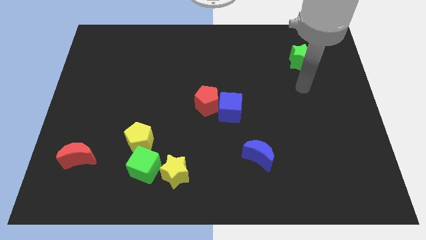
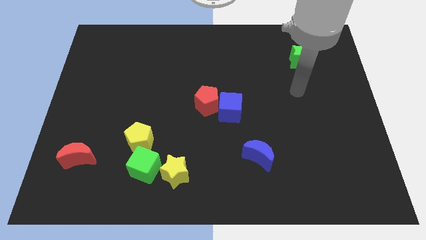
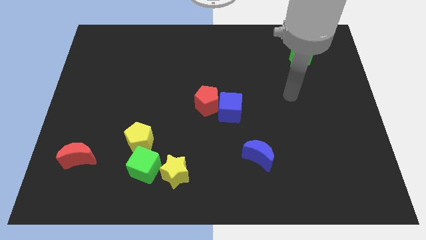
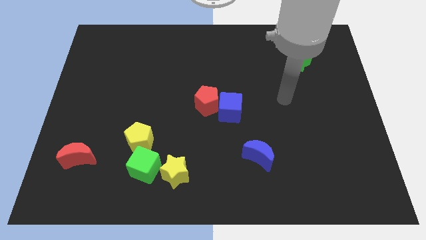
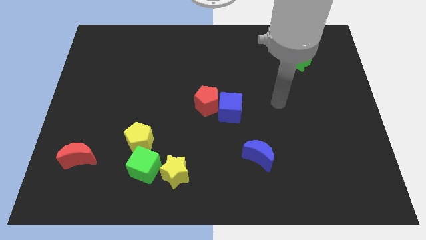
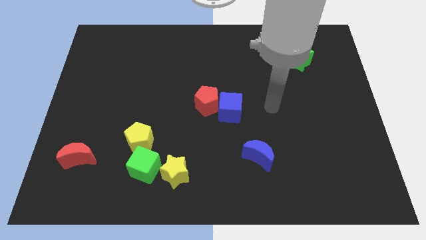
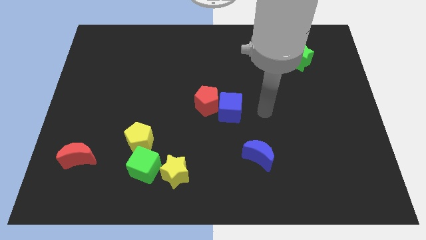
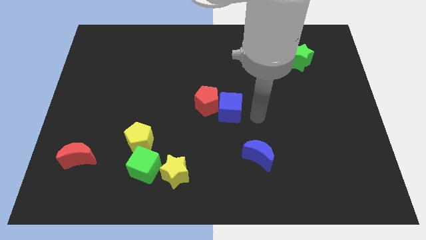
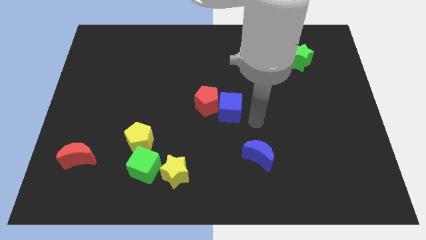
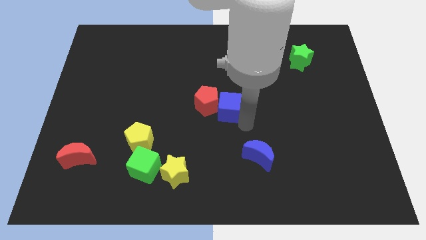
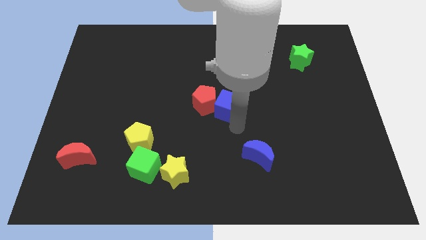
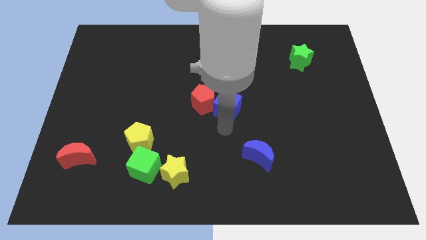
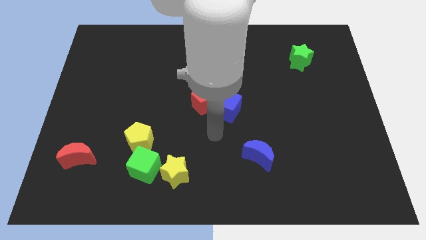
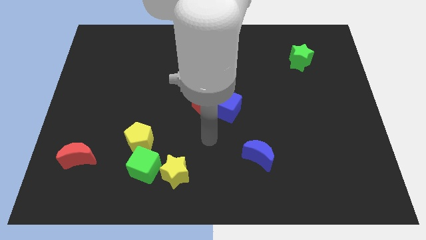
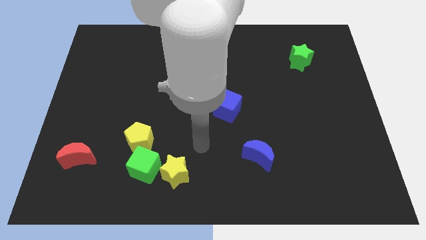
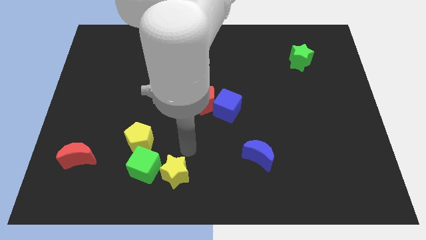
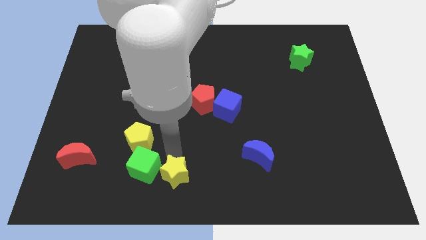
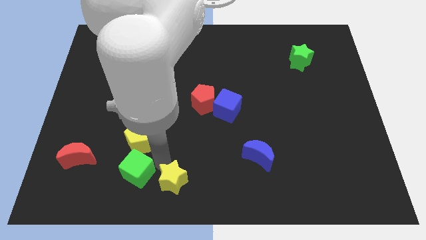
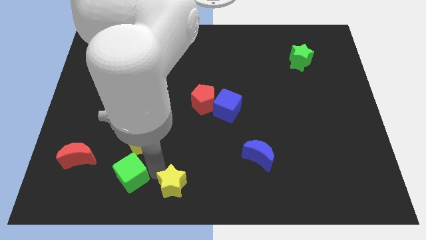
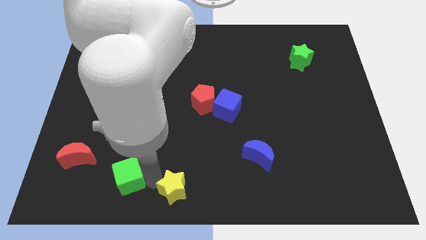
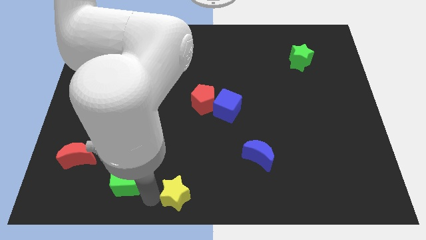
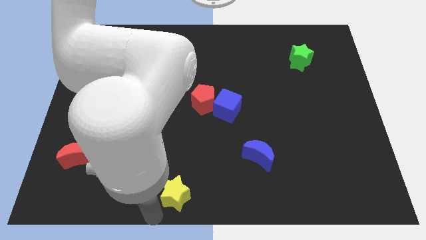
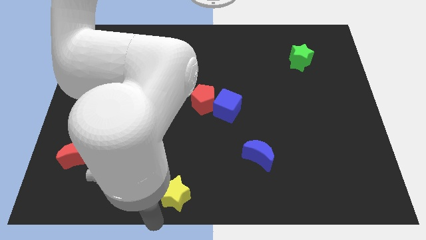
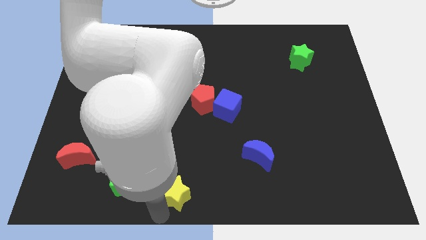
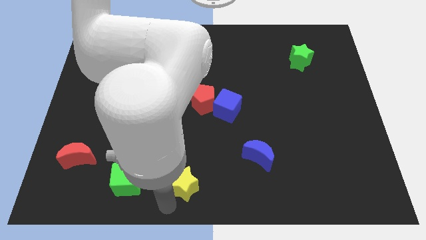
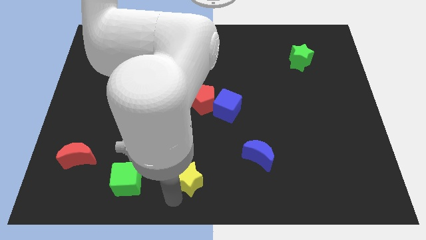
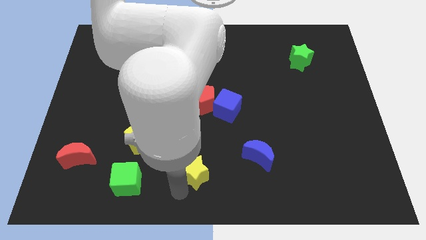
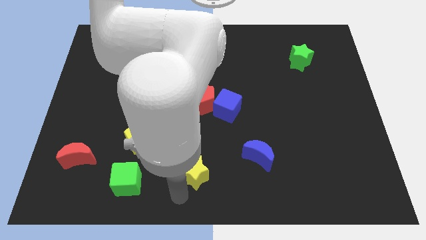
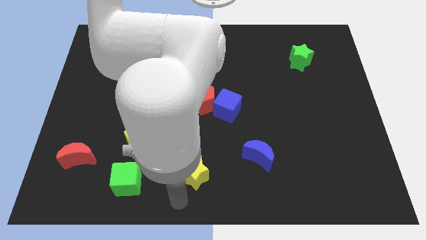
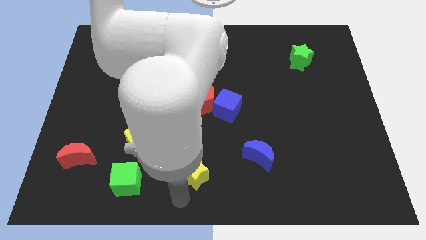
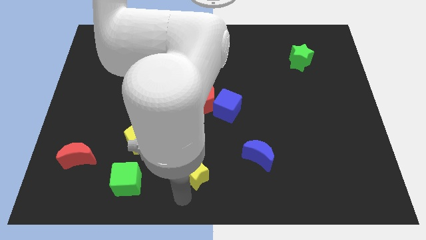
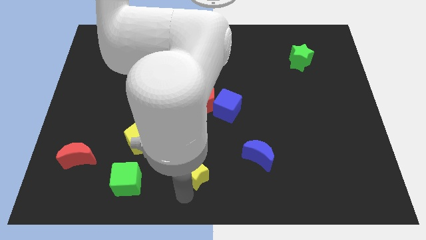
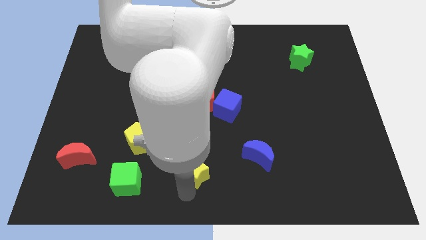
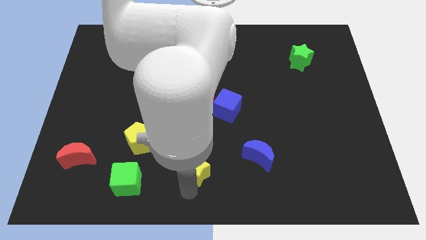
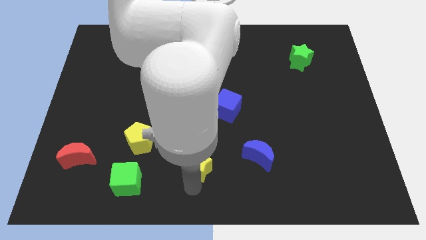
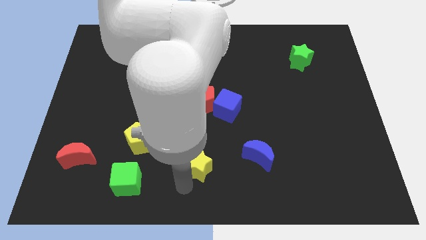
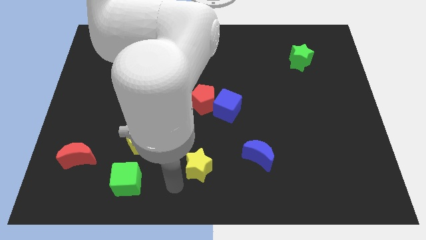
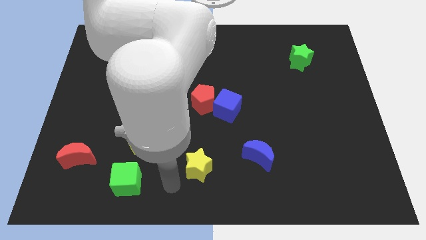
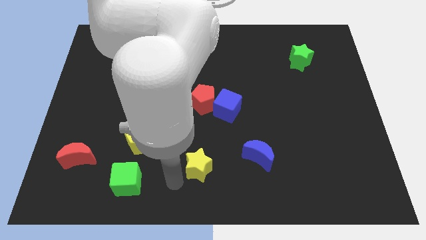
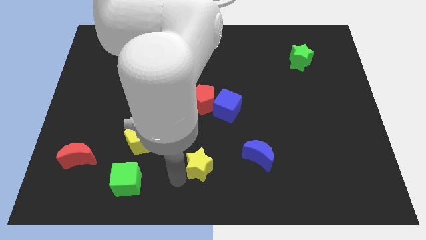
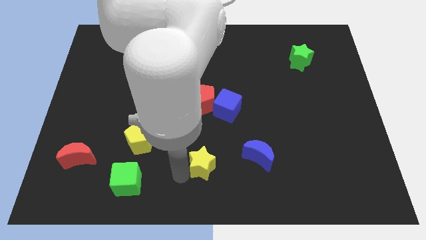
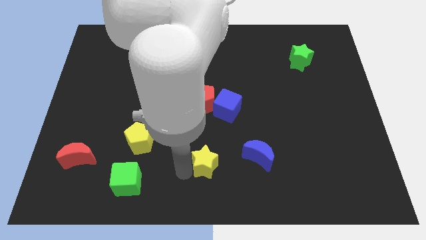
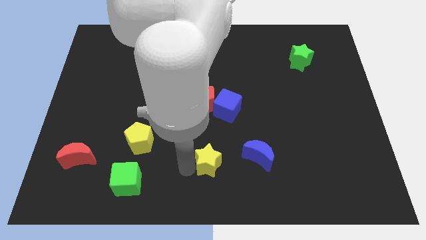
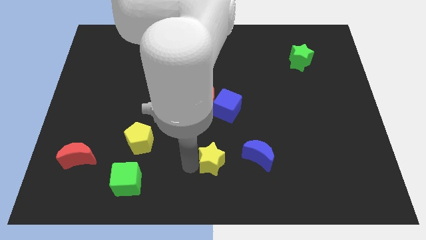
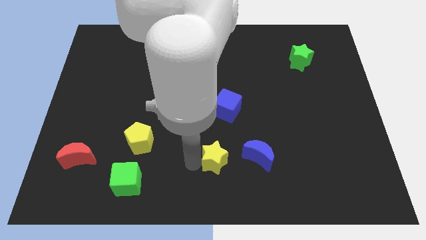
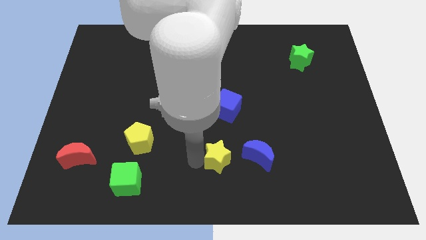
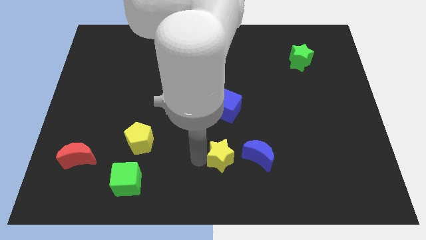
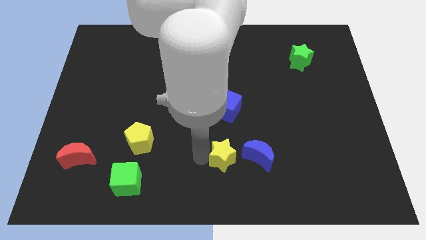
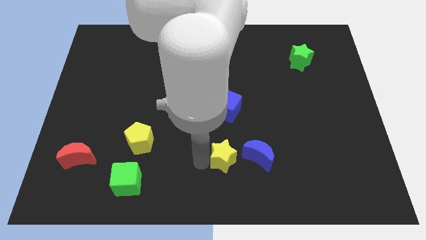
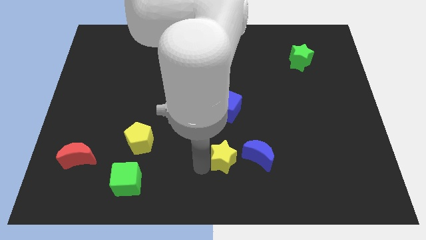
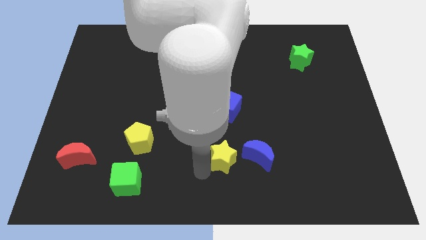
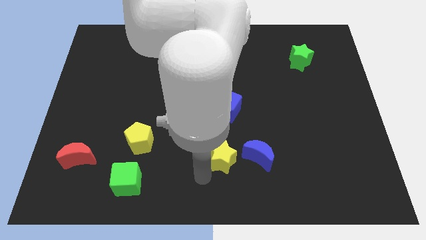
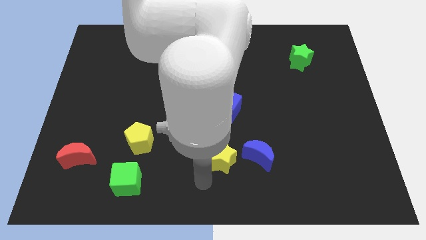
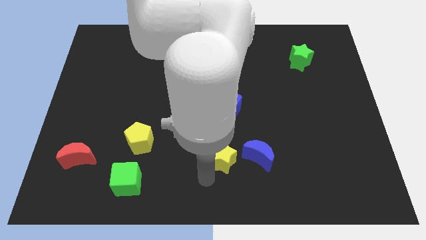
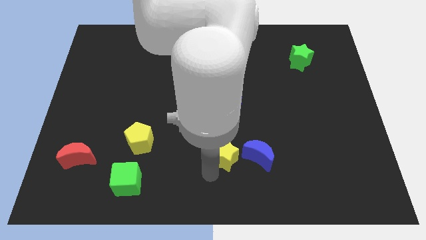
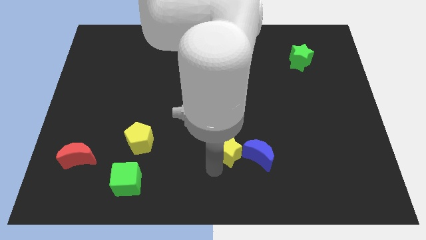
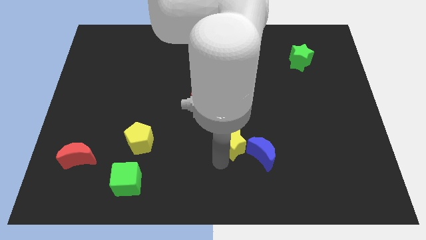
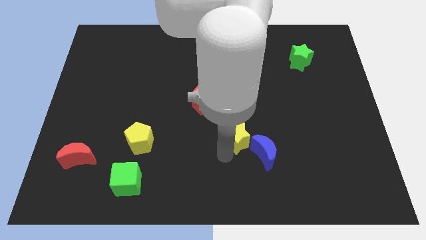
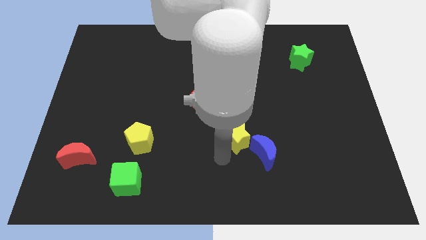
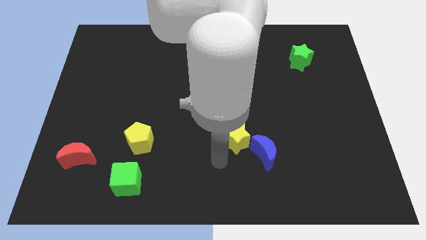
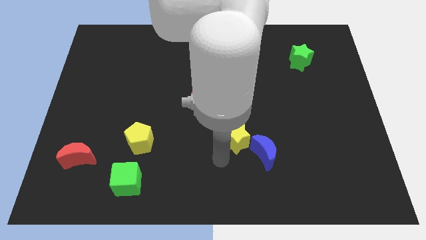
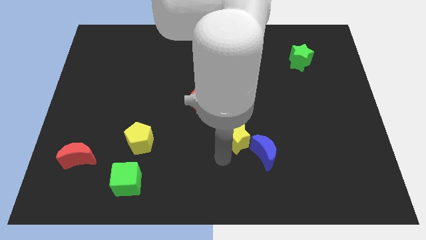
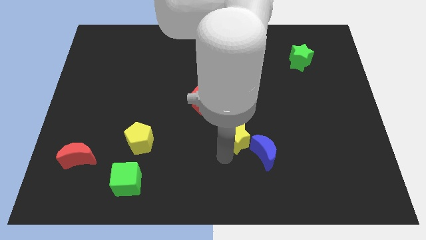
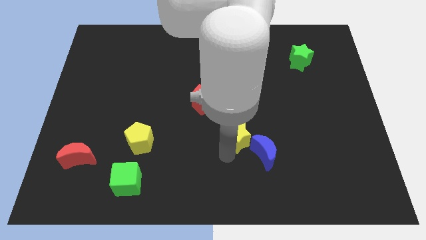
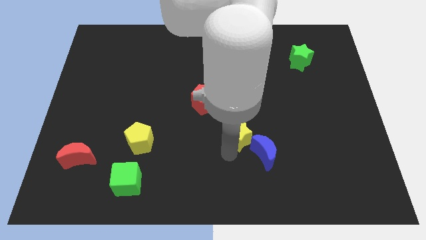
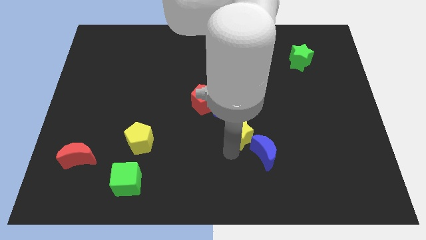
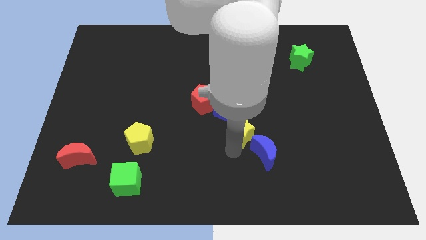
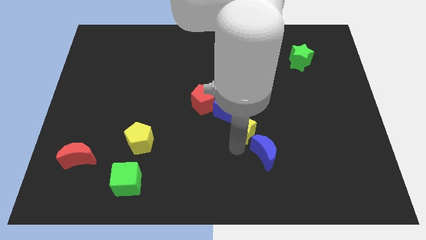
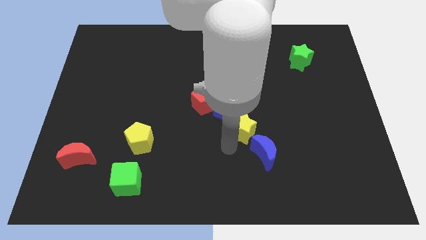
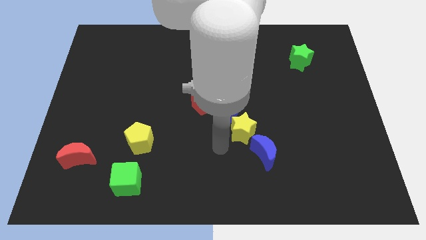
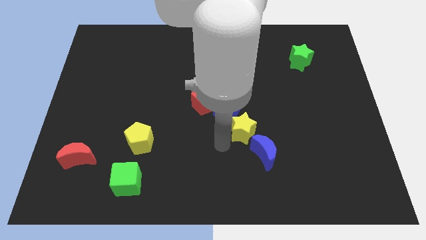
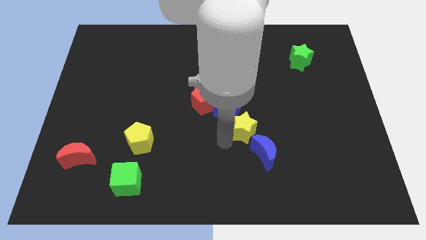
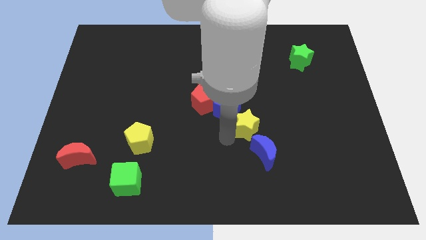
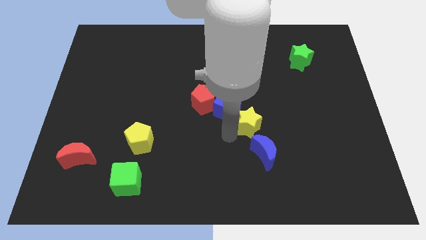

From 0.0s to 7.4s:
slide the yellow star to the right side of the blue cube

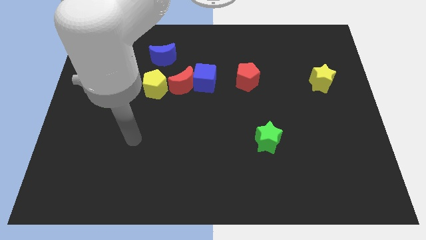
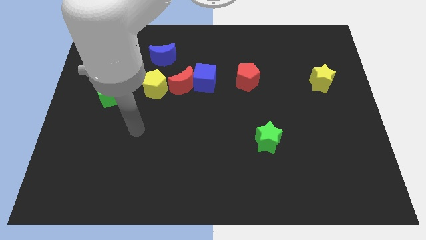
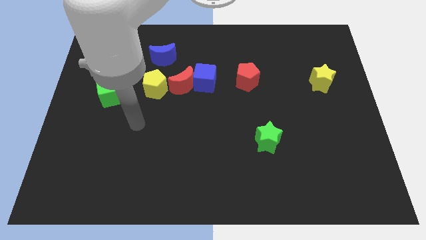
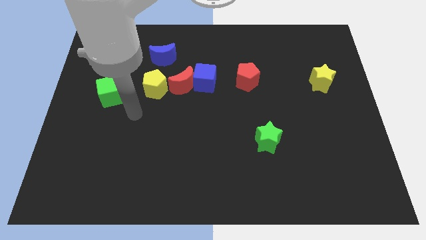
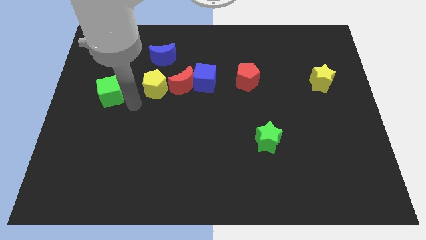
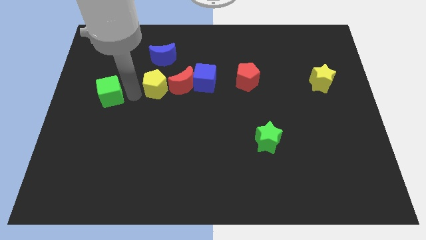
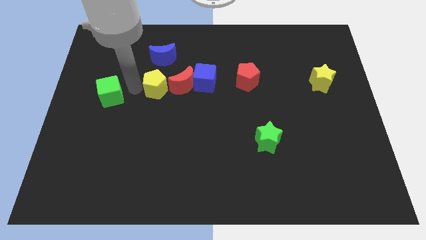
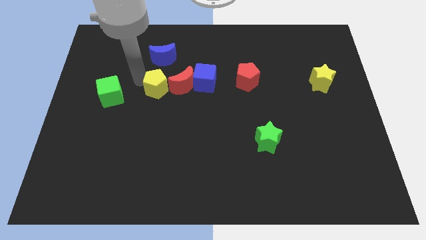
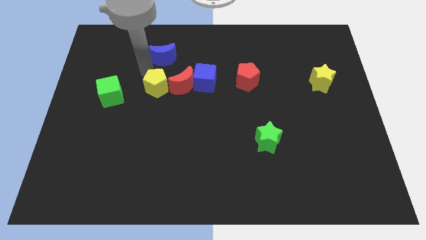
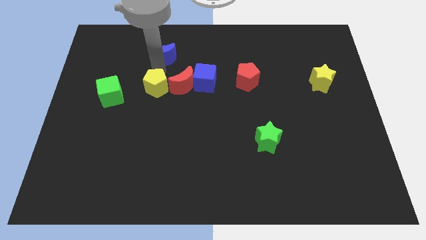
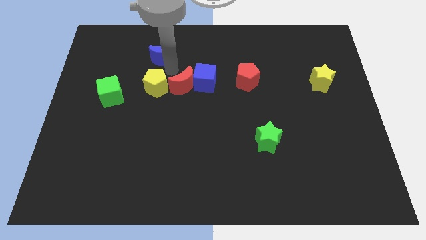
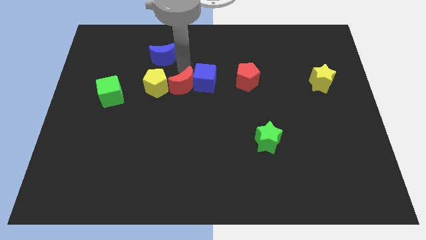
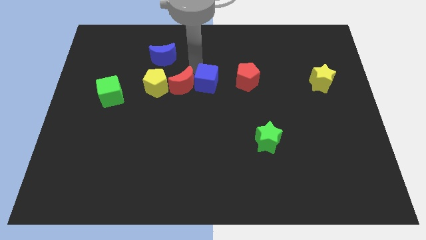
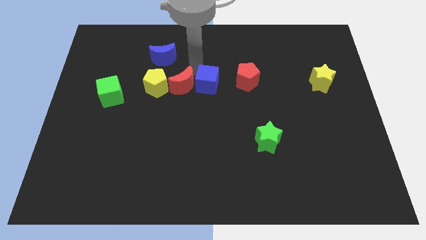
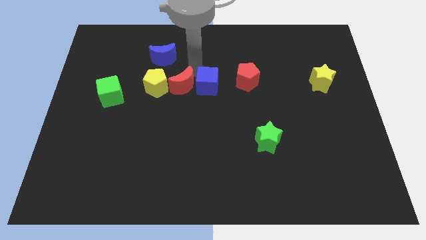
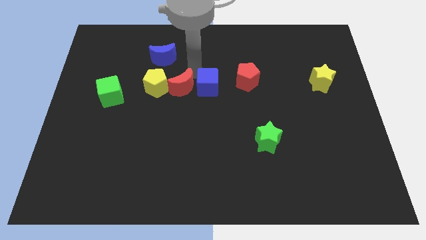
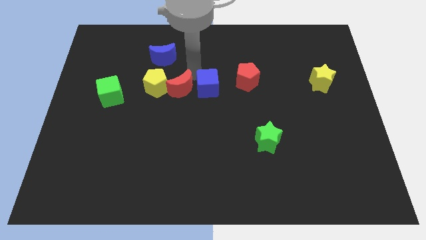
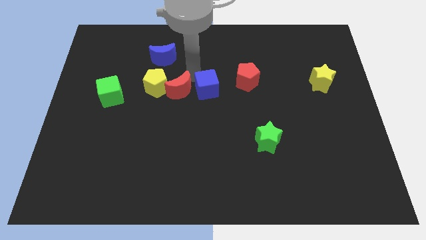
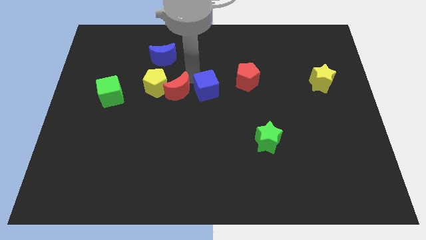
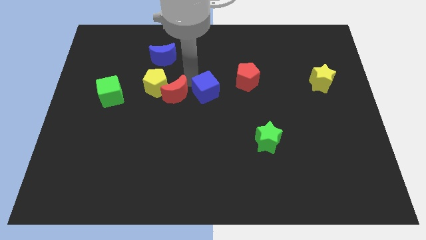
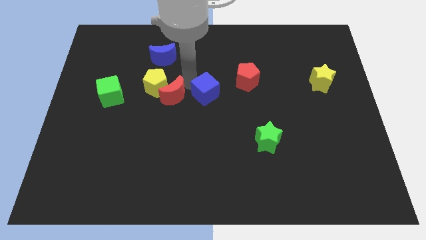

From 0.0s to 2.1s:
put the red moon below the yellow pentagon
